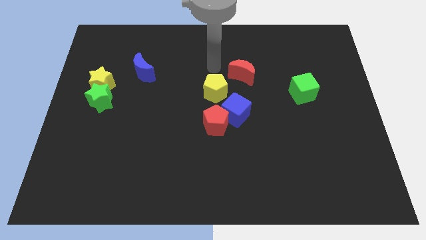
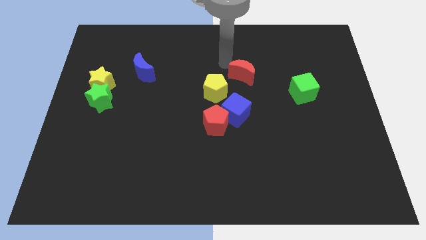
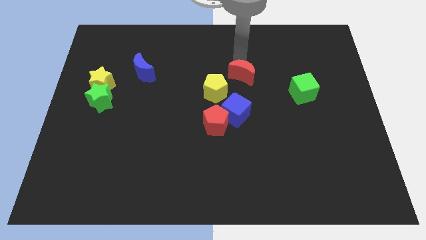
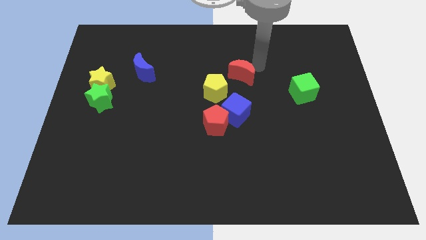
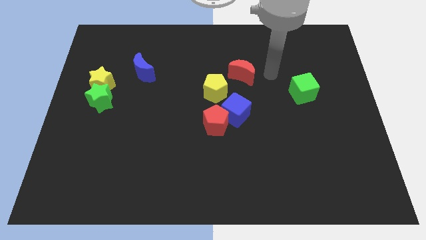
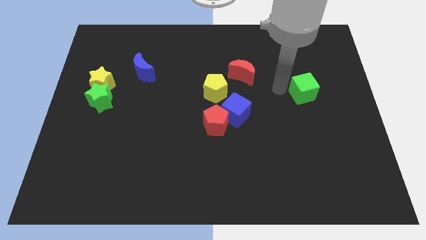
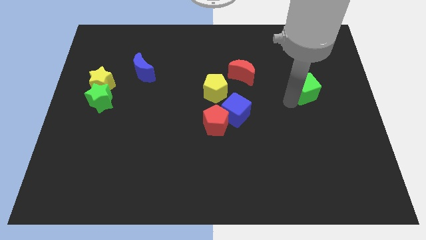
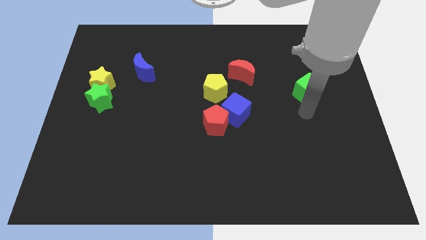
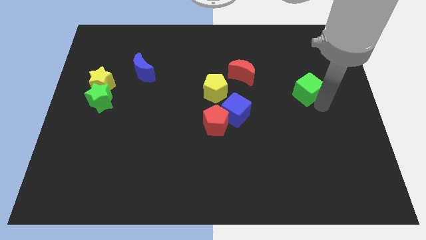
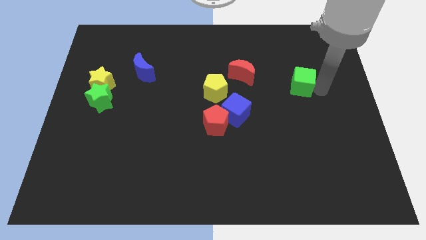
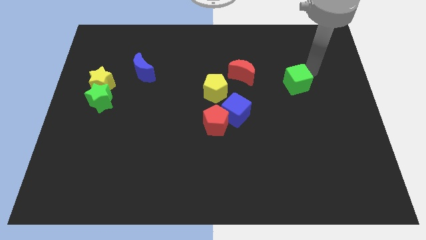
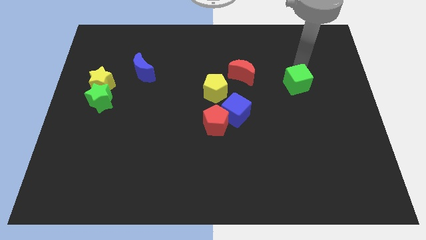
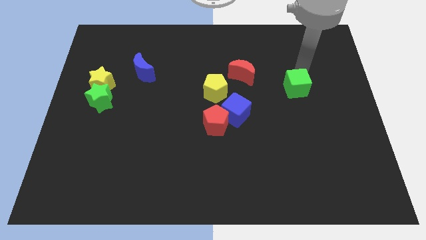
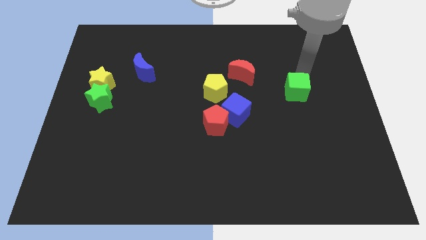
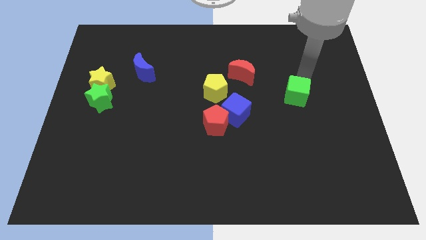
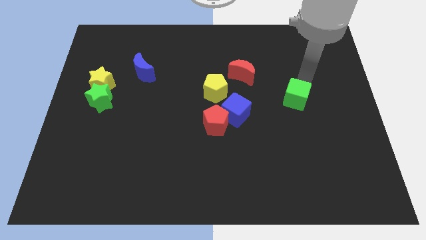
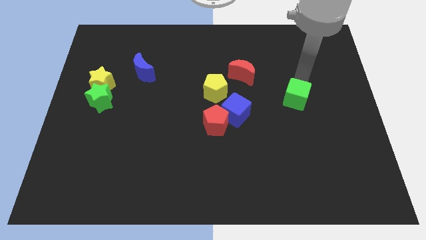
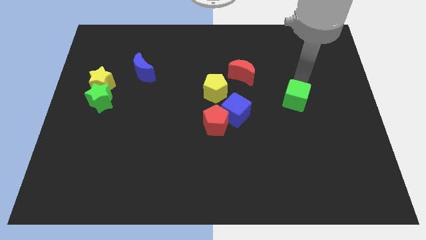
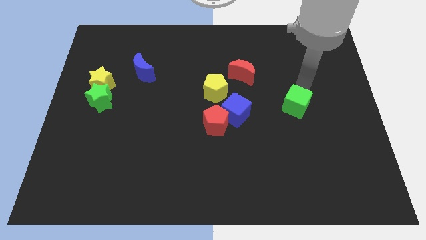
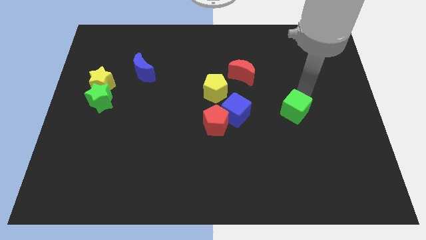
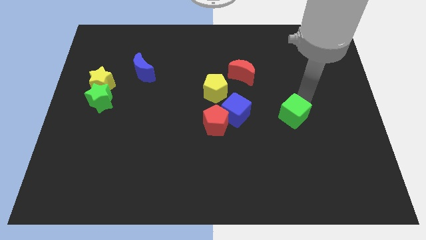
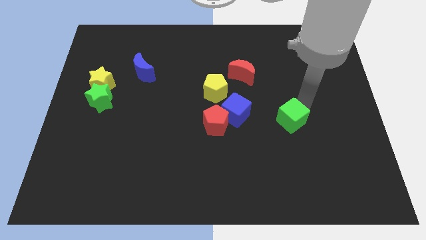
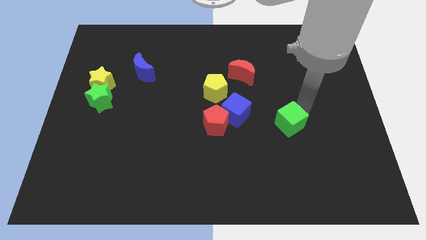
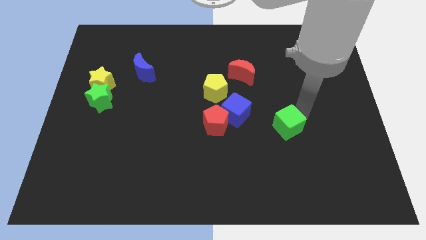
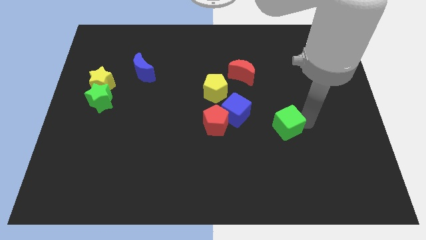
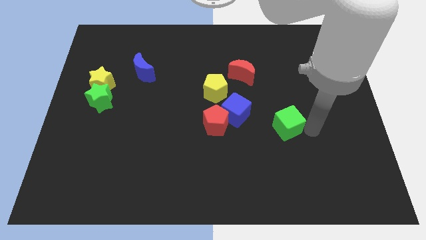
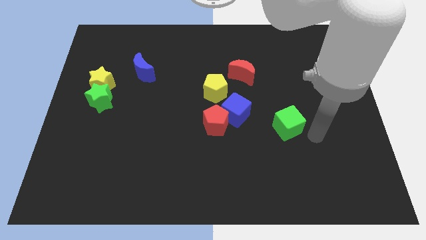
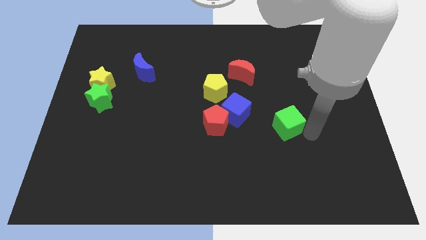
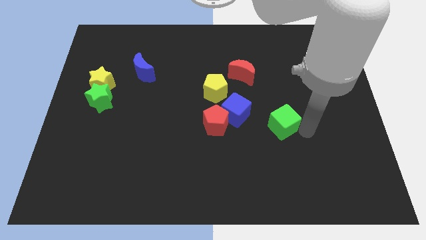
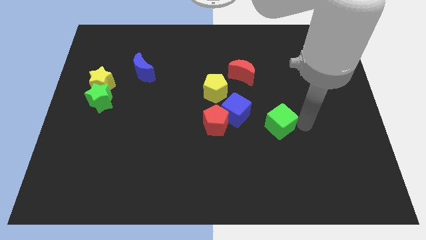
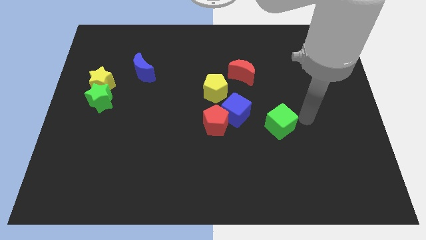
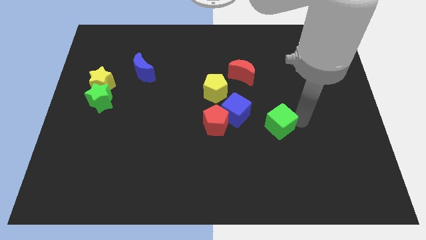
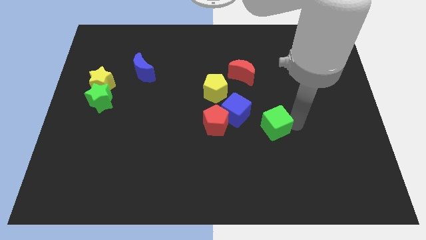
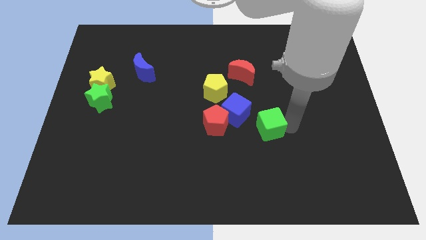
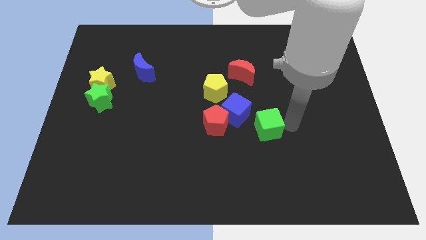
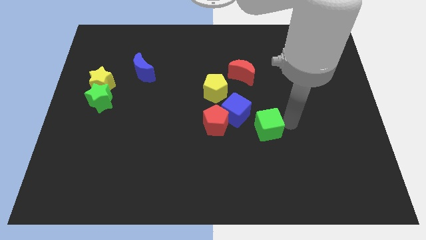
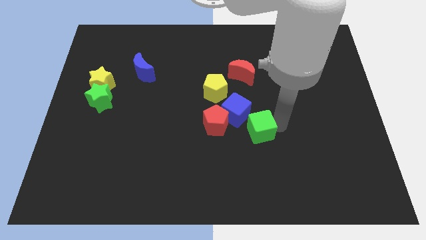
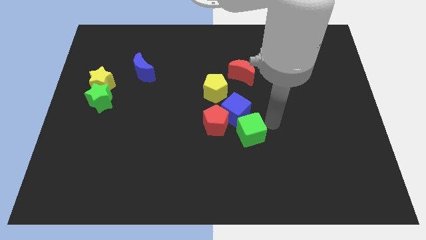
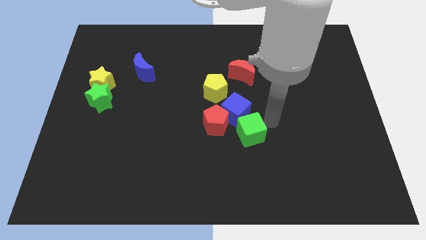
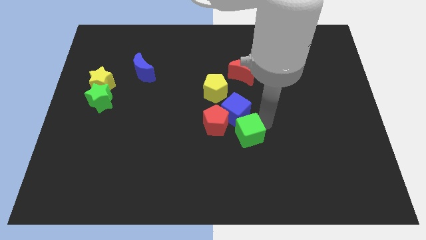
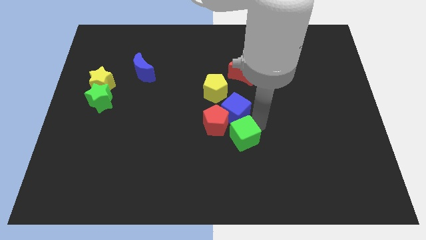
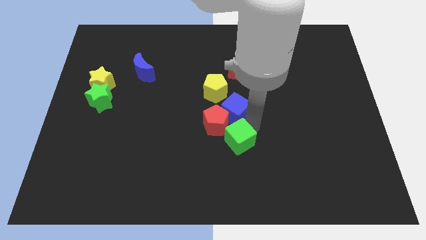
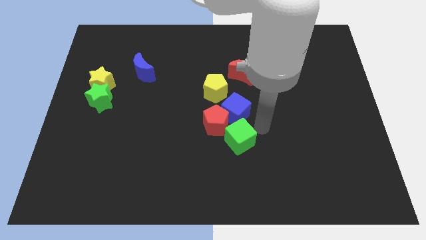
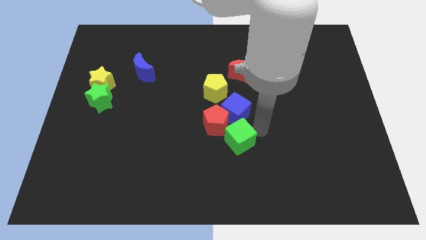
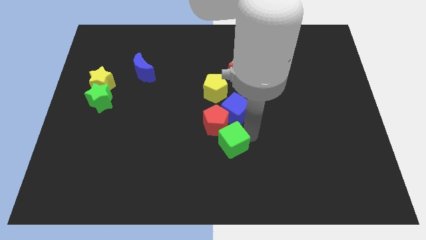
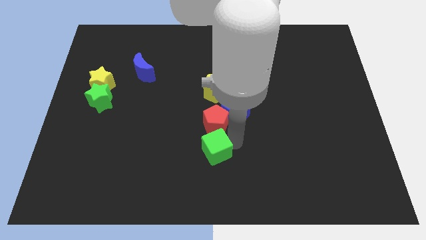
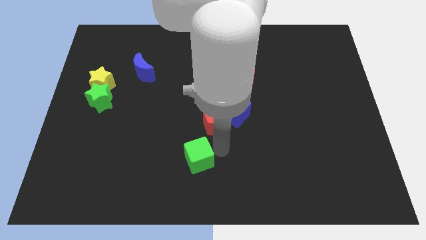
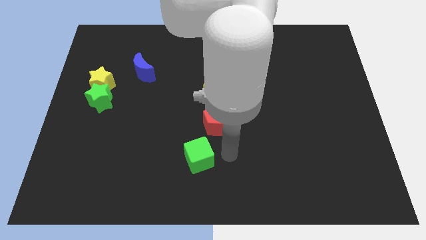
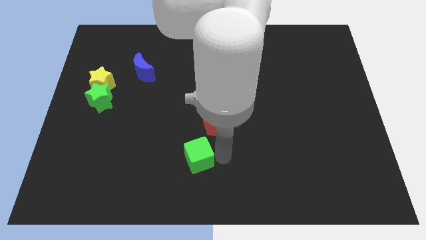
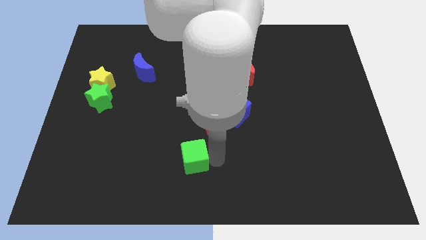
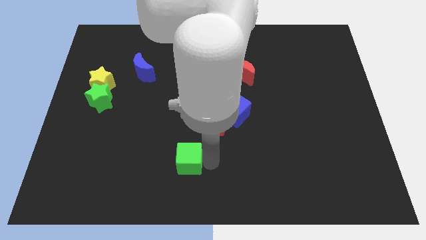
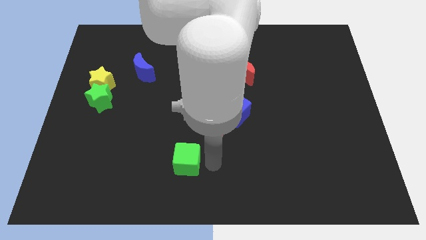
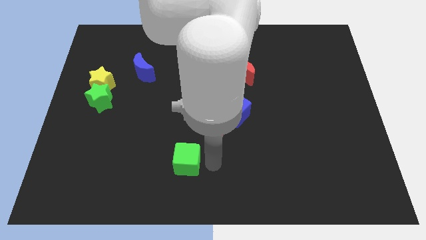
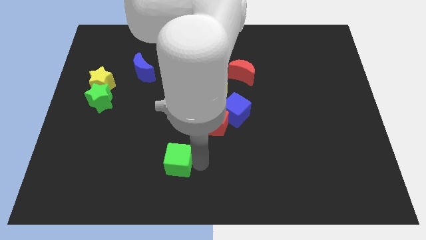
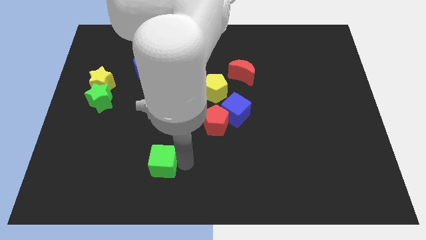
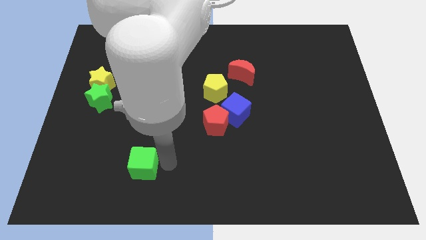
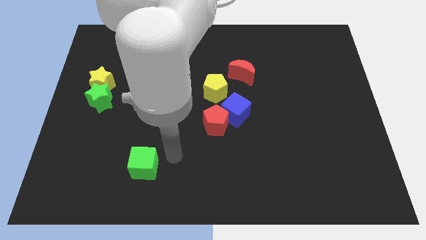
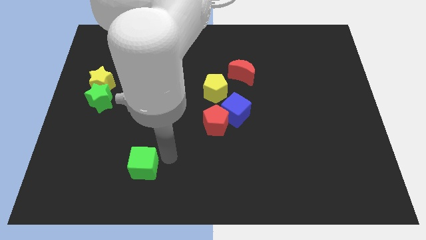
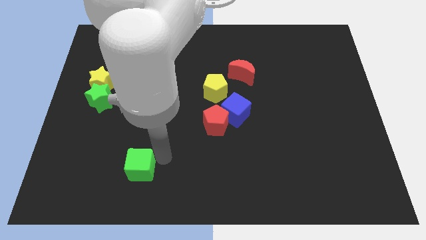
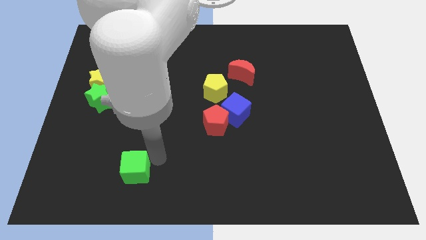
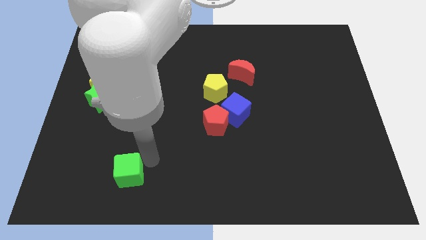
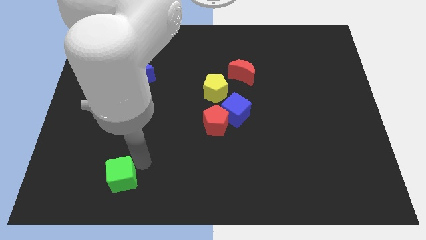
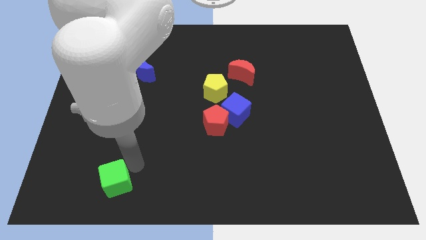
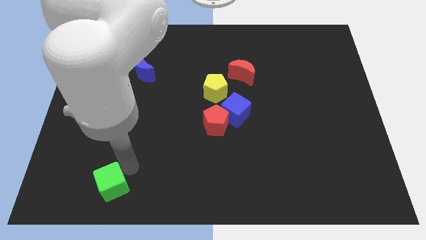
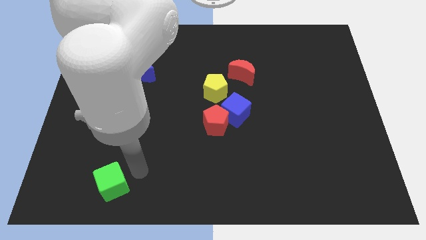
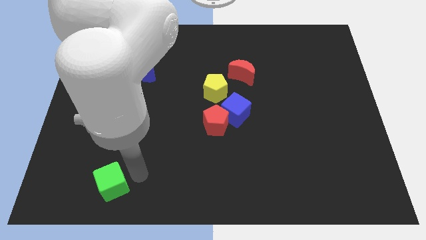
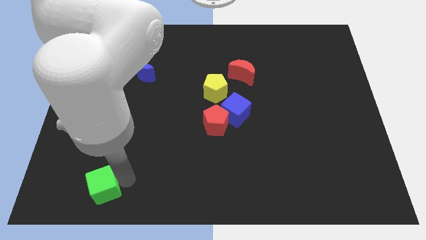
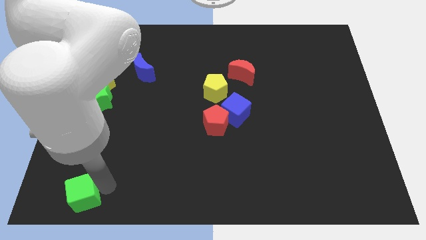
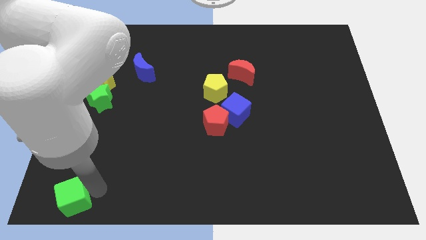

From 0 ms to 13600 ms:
put the green cube to the lower left corner

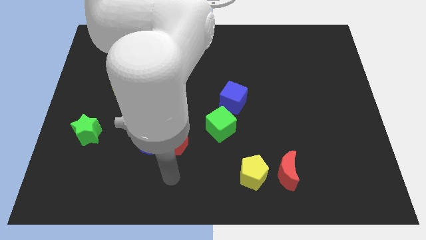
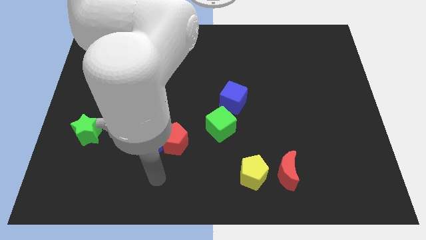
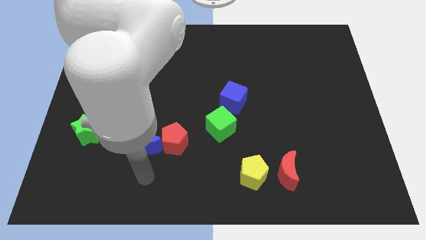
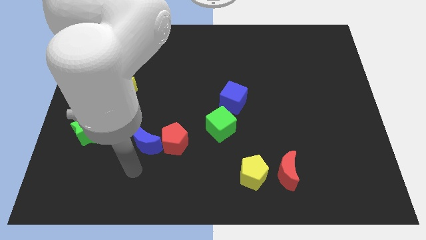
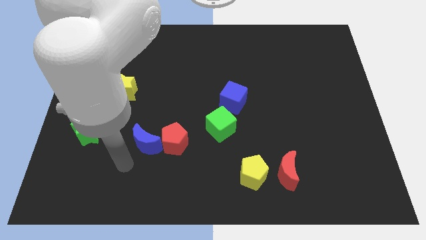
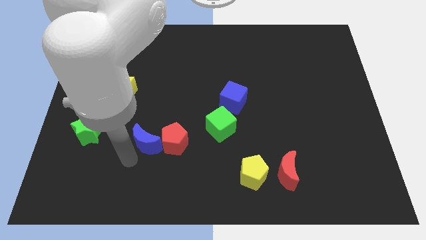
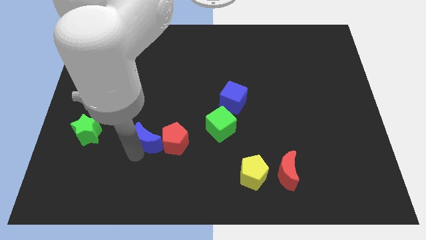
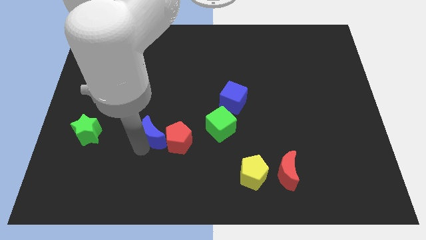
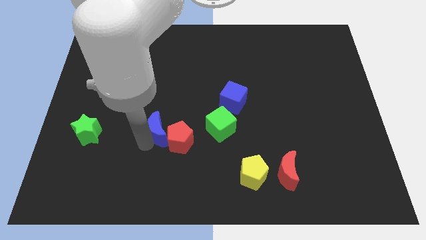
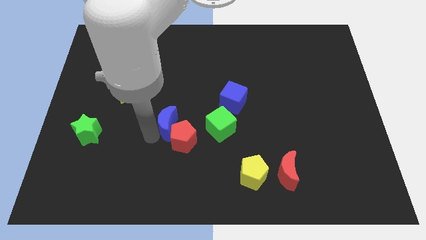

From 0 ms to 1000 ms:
move the blue moon to the center
